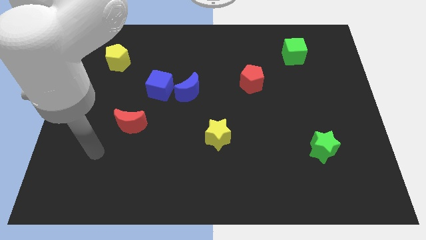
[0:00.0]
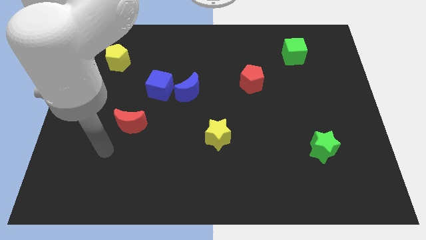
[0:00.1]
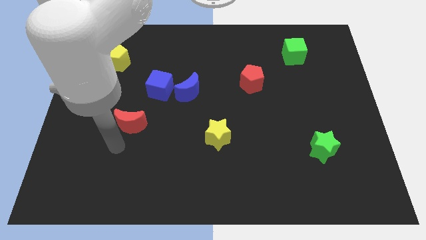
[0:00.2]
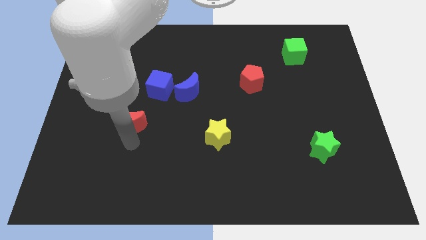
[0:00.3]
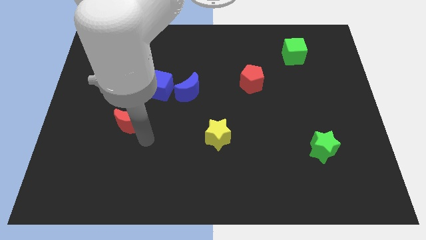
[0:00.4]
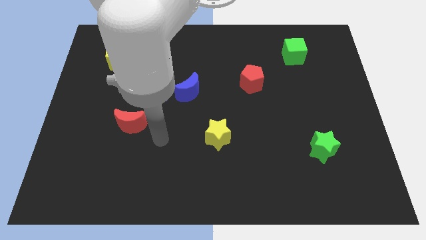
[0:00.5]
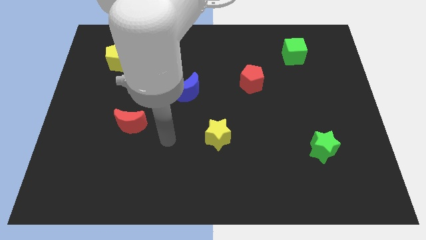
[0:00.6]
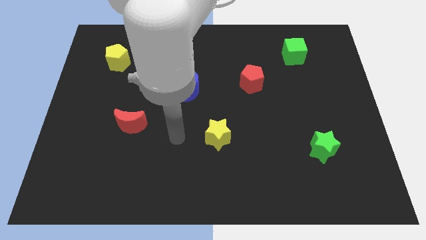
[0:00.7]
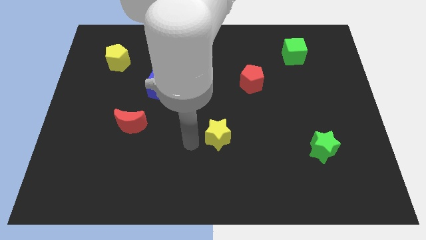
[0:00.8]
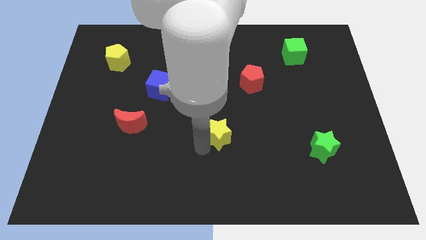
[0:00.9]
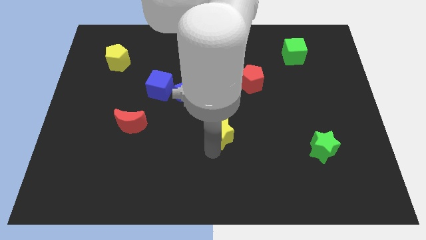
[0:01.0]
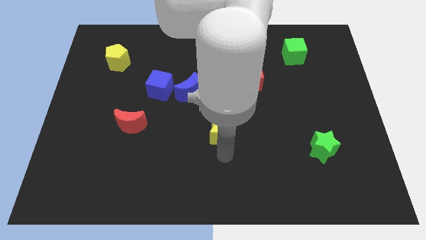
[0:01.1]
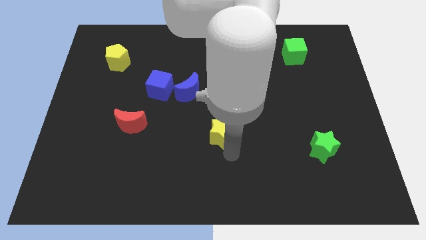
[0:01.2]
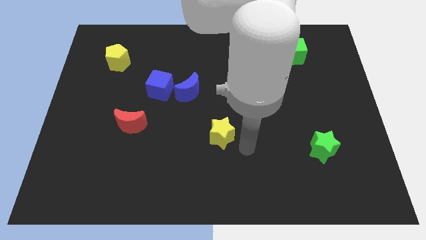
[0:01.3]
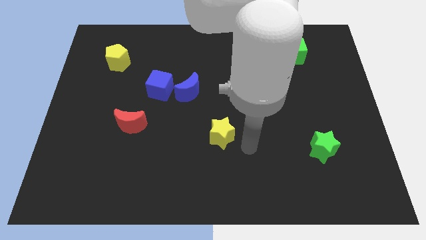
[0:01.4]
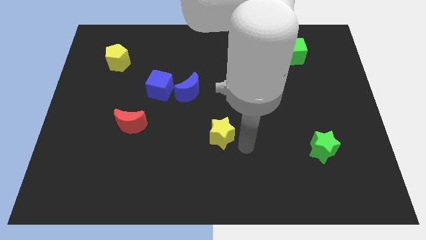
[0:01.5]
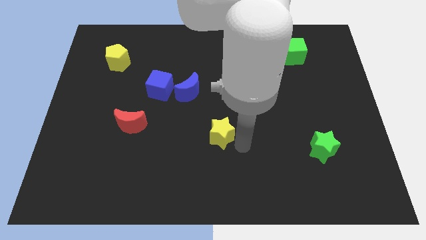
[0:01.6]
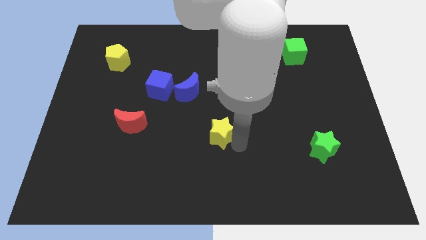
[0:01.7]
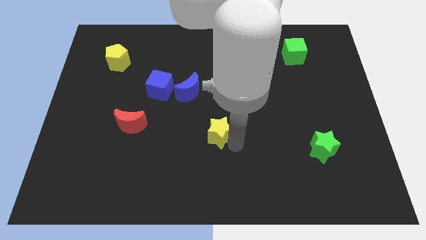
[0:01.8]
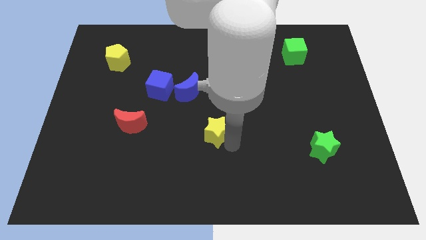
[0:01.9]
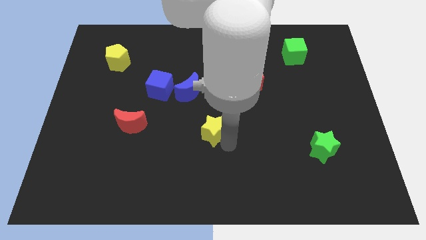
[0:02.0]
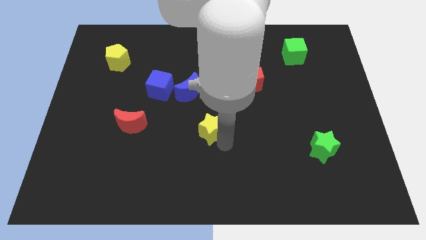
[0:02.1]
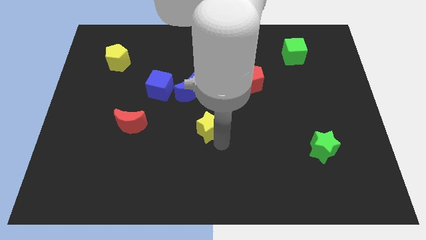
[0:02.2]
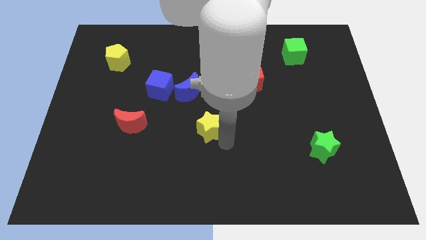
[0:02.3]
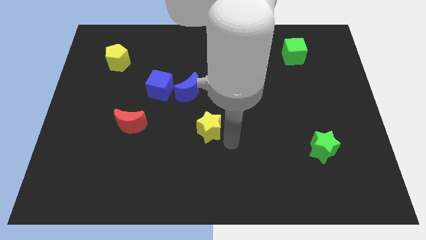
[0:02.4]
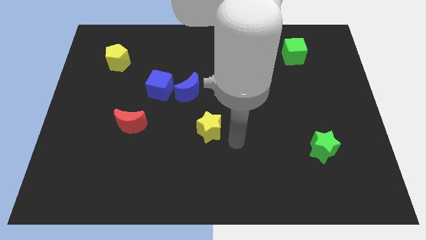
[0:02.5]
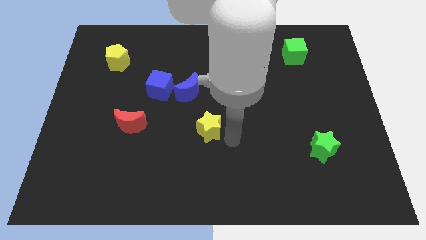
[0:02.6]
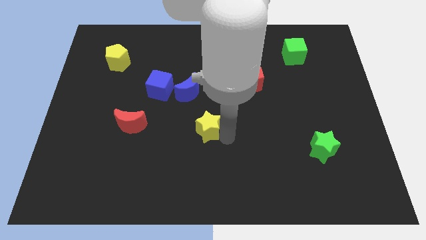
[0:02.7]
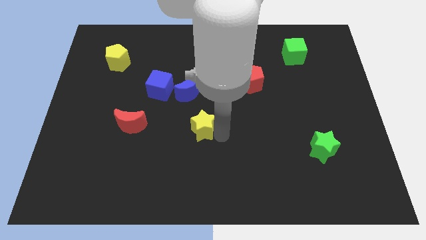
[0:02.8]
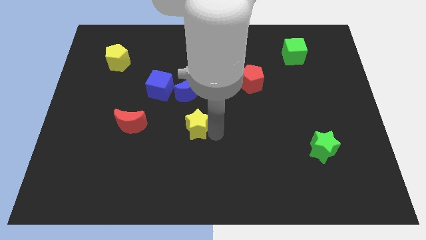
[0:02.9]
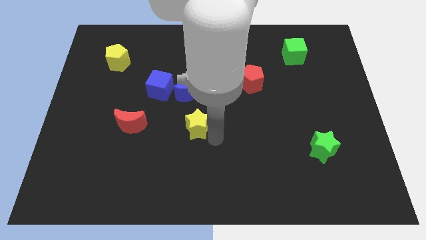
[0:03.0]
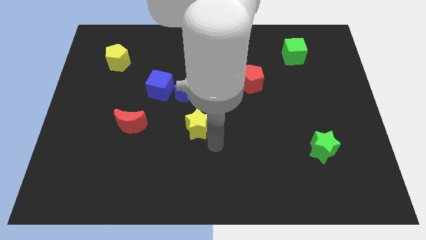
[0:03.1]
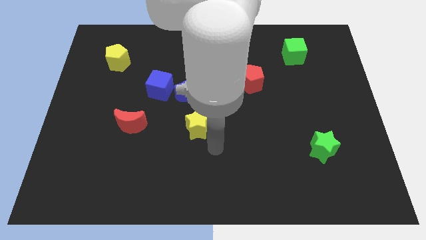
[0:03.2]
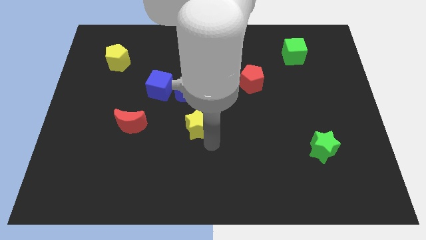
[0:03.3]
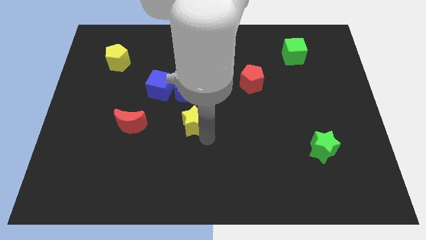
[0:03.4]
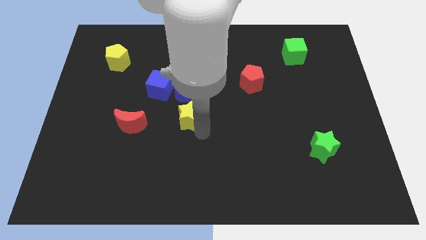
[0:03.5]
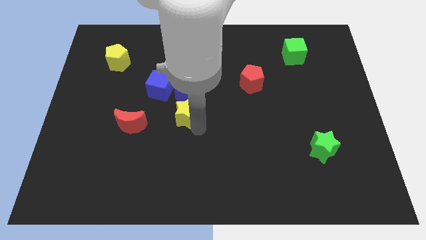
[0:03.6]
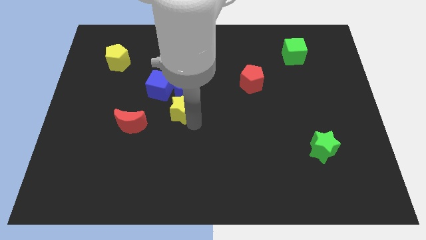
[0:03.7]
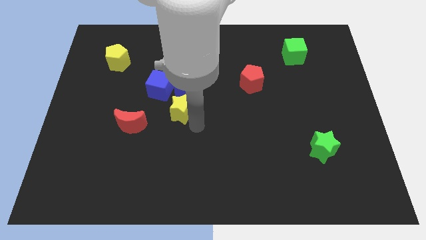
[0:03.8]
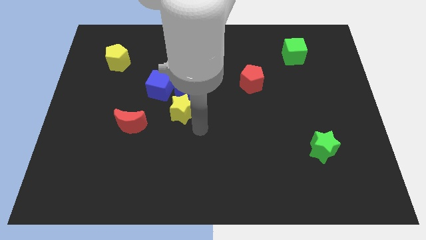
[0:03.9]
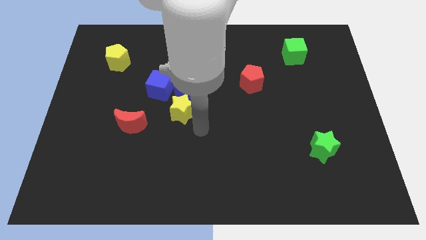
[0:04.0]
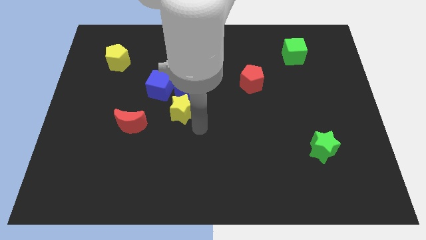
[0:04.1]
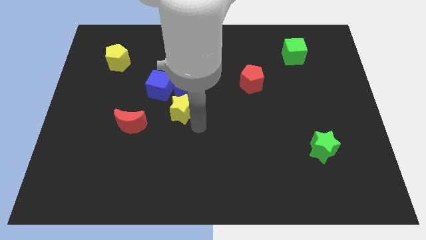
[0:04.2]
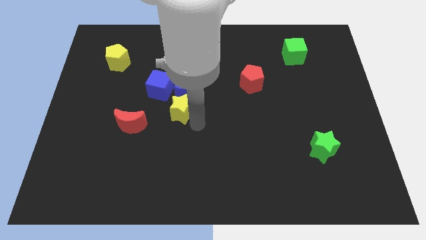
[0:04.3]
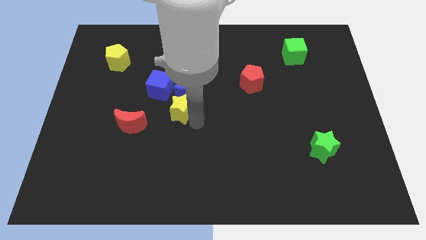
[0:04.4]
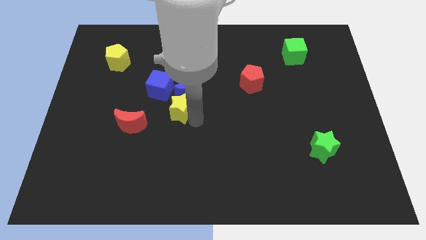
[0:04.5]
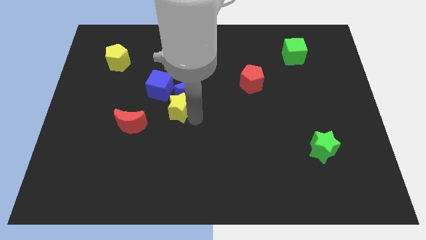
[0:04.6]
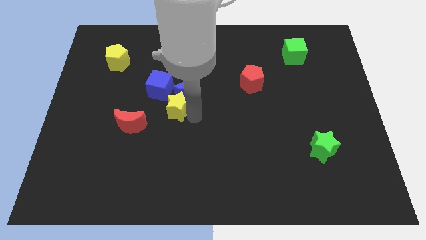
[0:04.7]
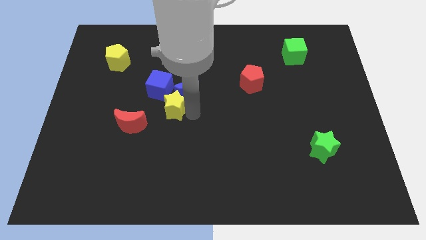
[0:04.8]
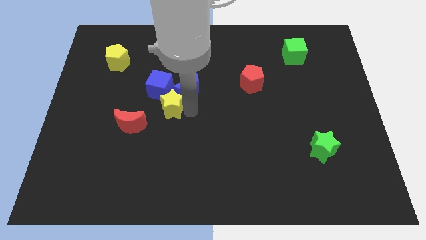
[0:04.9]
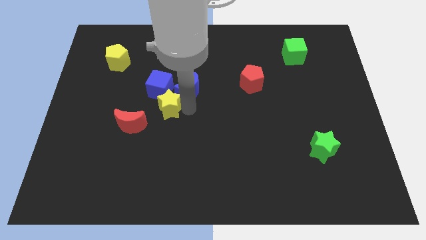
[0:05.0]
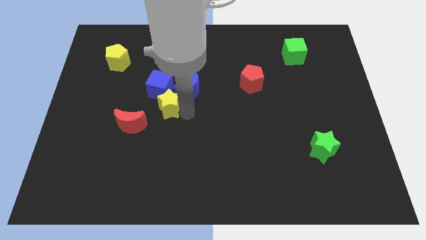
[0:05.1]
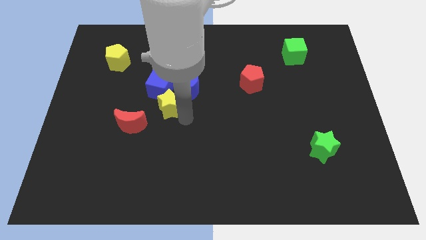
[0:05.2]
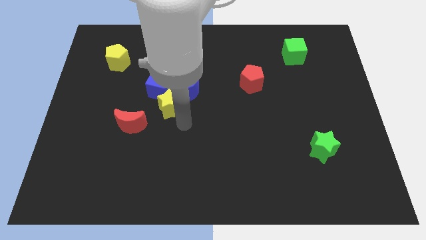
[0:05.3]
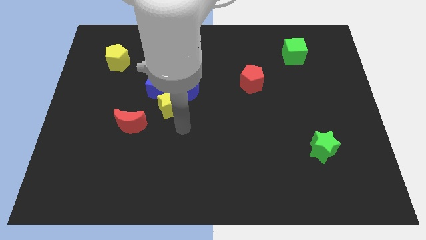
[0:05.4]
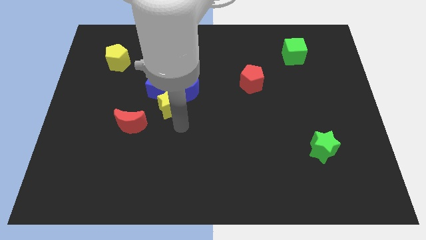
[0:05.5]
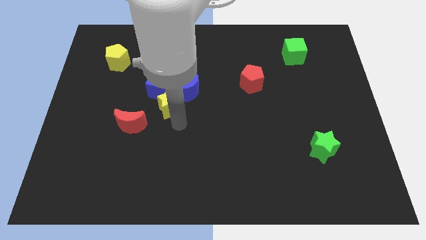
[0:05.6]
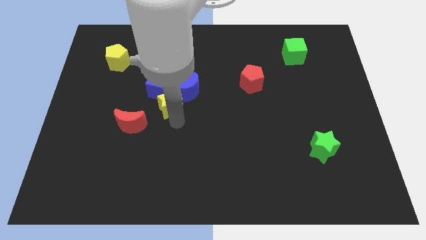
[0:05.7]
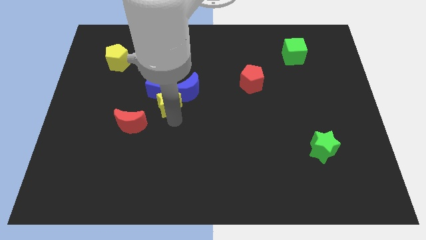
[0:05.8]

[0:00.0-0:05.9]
slide the yellow star towards the blue cube
